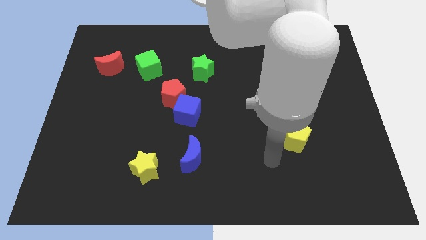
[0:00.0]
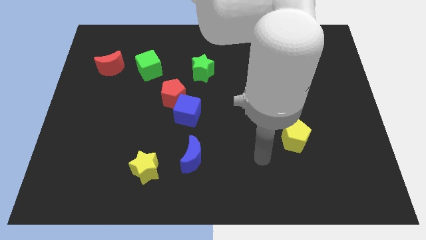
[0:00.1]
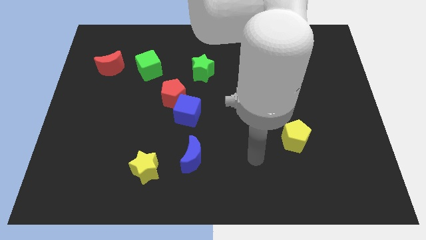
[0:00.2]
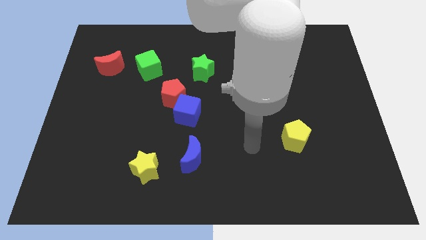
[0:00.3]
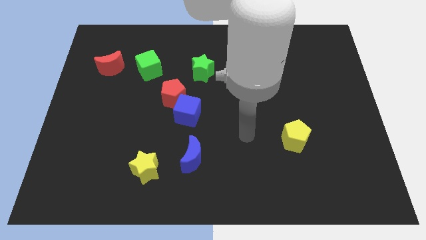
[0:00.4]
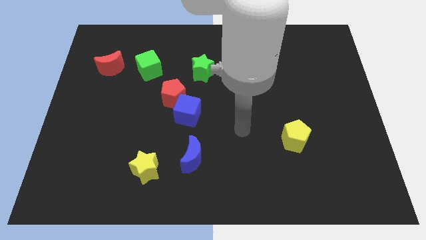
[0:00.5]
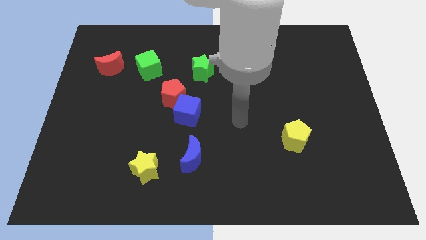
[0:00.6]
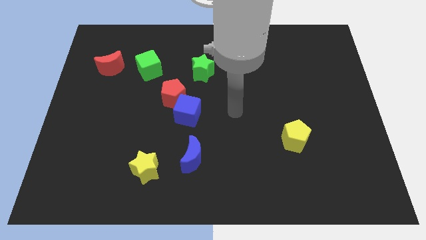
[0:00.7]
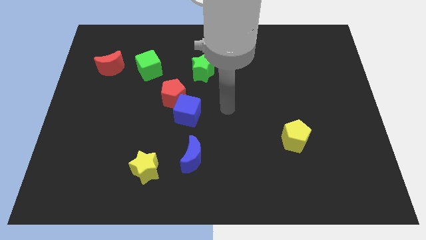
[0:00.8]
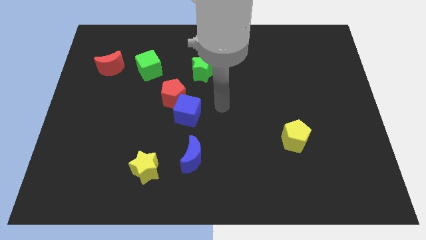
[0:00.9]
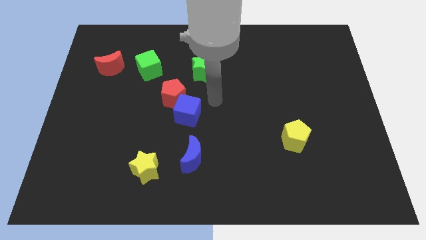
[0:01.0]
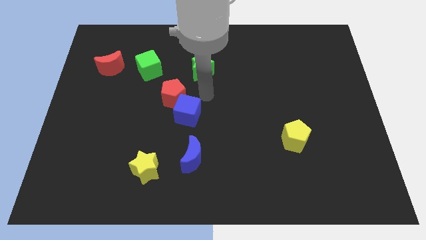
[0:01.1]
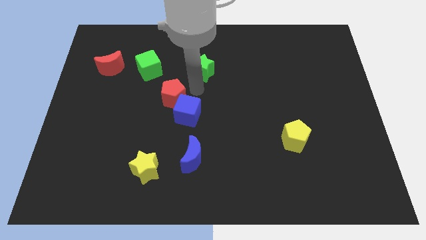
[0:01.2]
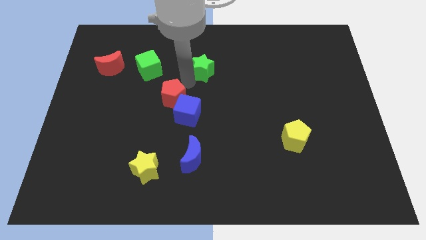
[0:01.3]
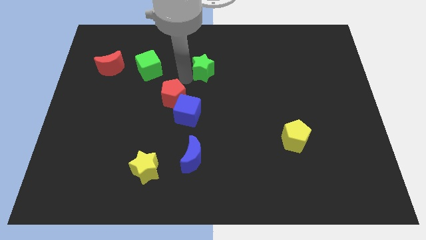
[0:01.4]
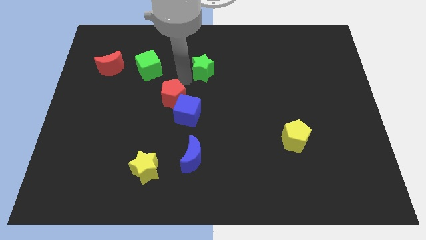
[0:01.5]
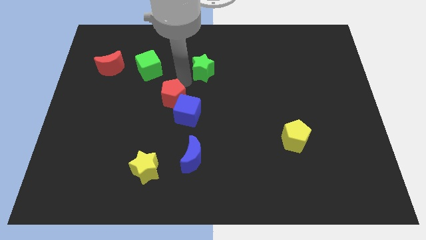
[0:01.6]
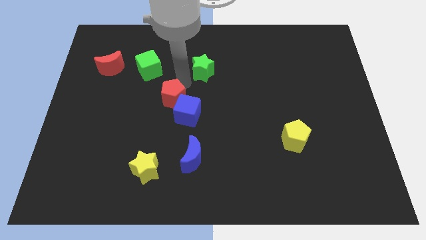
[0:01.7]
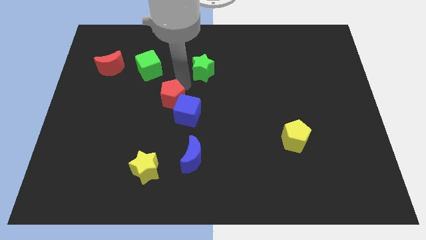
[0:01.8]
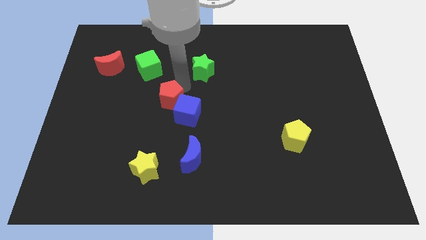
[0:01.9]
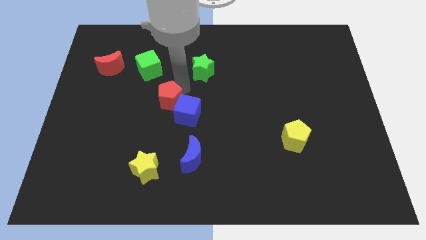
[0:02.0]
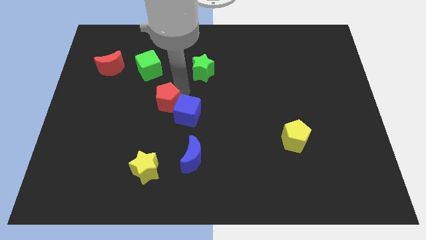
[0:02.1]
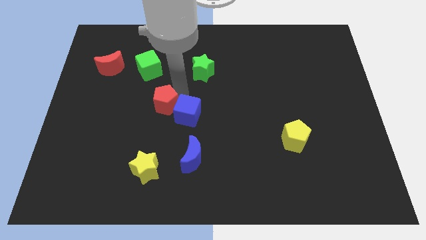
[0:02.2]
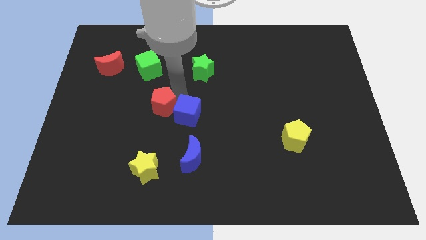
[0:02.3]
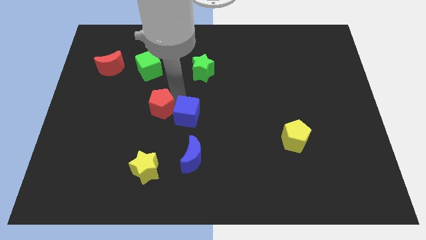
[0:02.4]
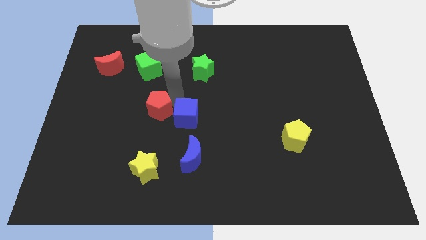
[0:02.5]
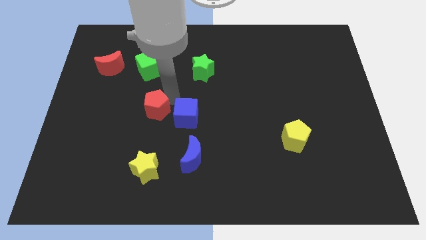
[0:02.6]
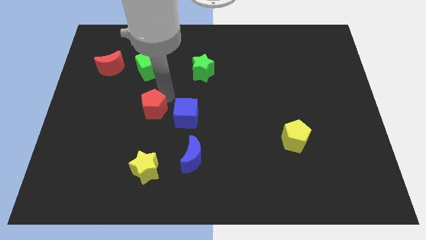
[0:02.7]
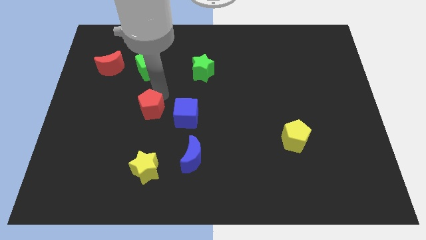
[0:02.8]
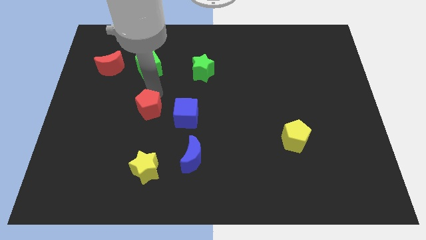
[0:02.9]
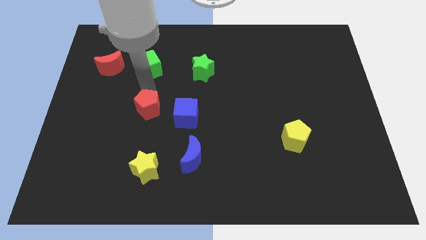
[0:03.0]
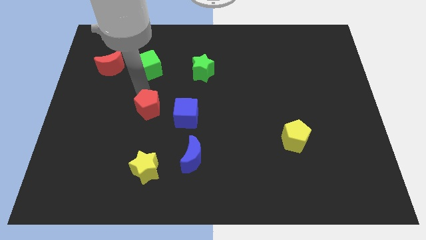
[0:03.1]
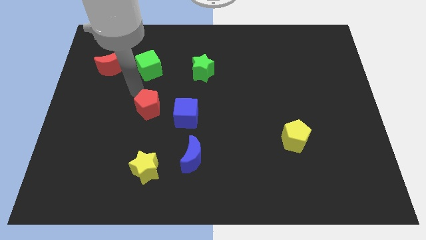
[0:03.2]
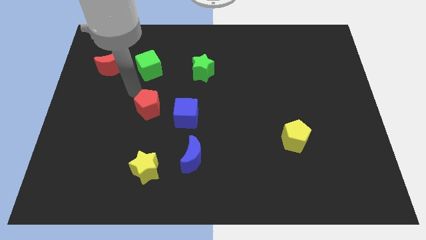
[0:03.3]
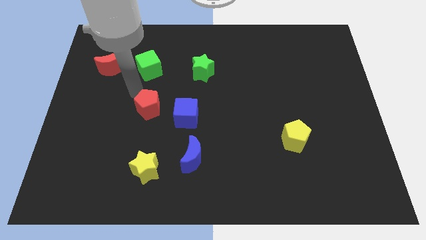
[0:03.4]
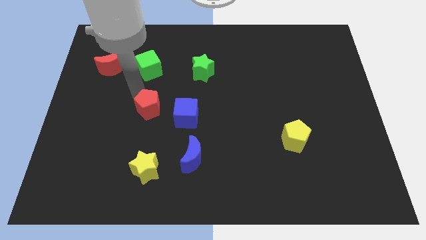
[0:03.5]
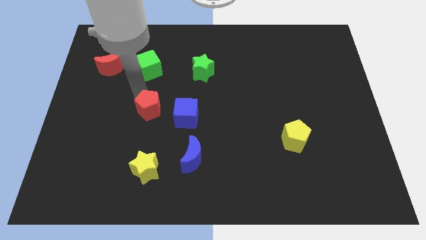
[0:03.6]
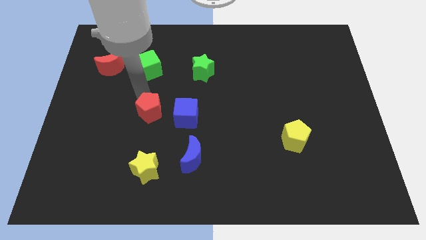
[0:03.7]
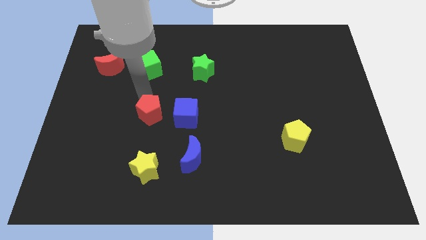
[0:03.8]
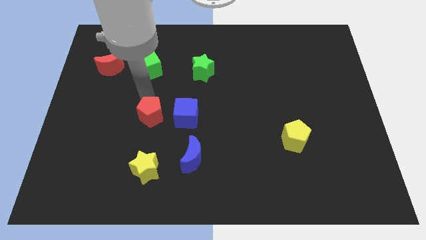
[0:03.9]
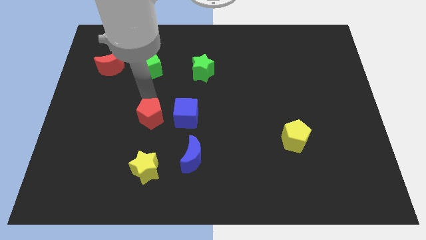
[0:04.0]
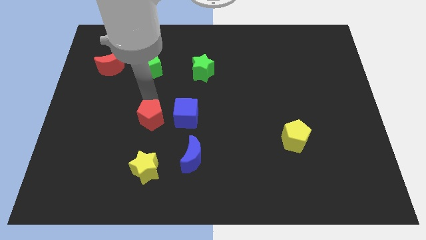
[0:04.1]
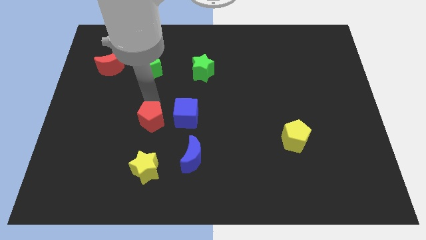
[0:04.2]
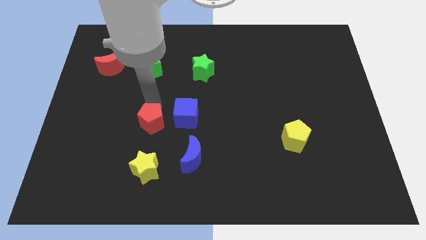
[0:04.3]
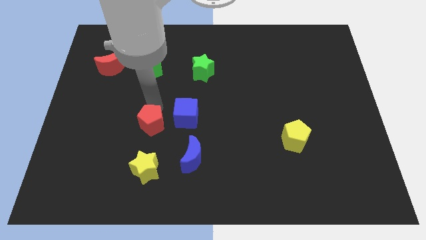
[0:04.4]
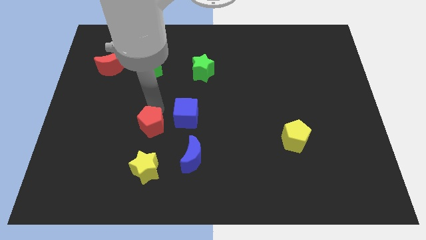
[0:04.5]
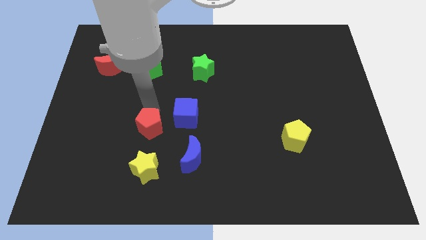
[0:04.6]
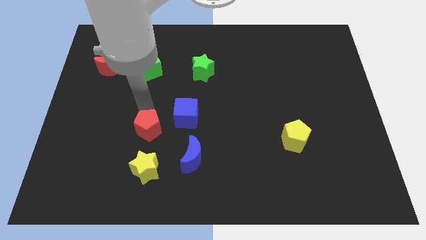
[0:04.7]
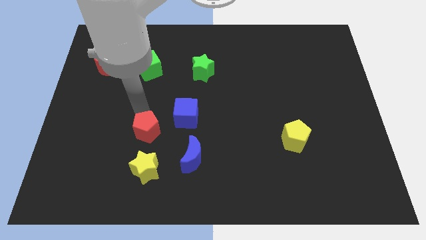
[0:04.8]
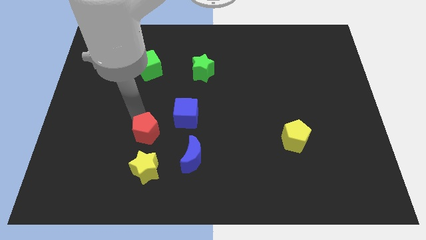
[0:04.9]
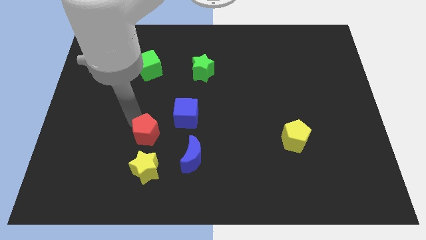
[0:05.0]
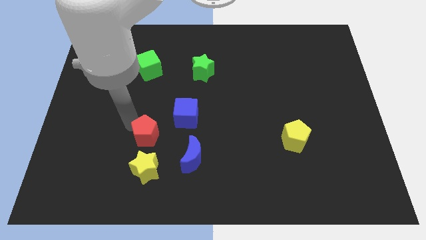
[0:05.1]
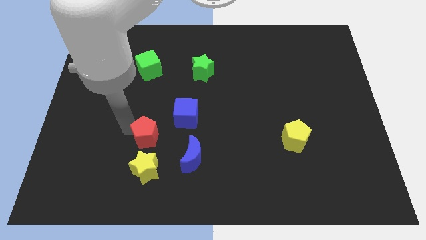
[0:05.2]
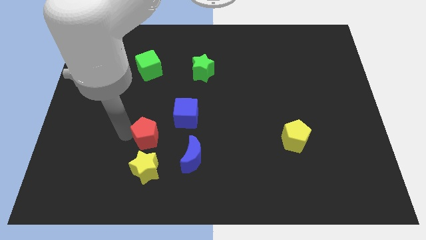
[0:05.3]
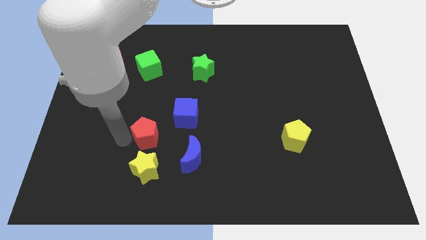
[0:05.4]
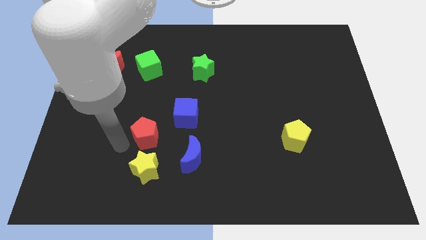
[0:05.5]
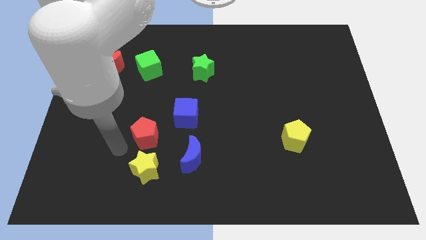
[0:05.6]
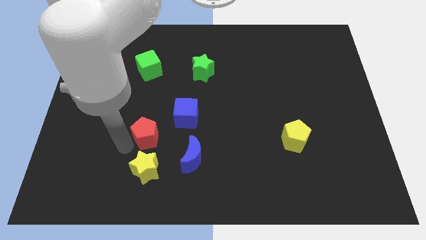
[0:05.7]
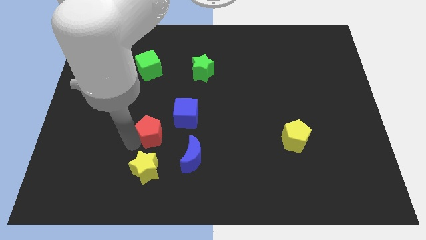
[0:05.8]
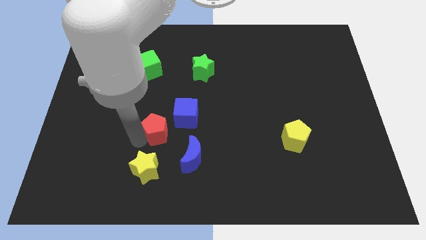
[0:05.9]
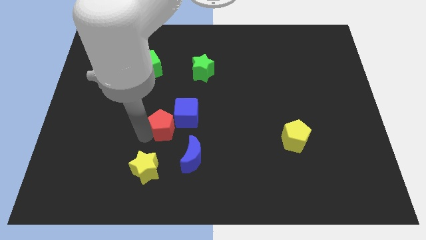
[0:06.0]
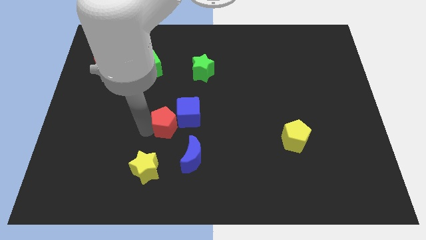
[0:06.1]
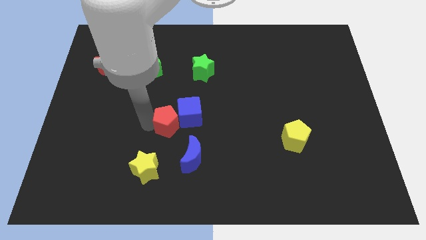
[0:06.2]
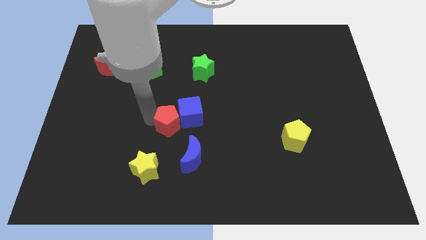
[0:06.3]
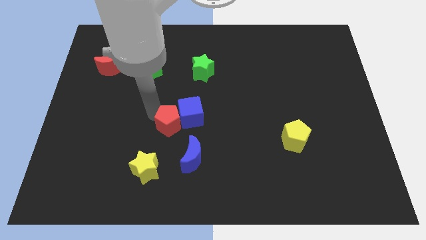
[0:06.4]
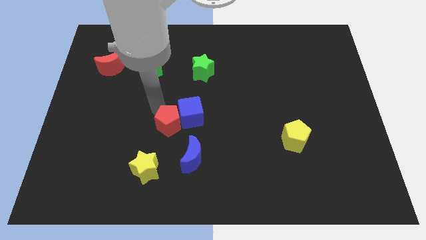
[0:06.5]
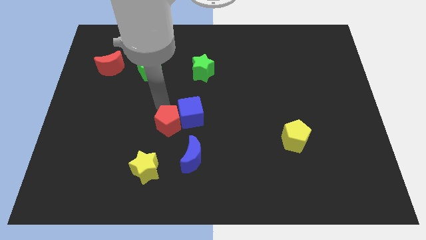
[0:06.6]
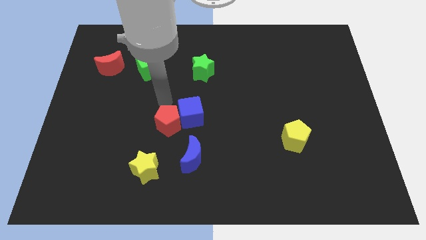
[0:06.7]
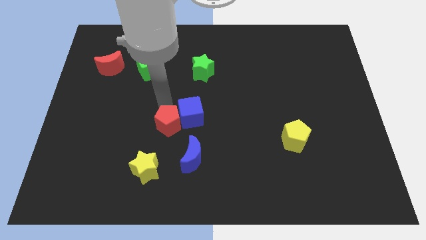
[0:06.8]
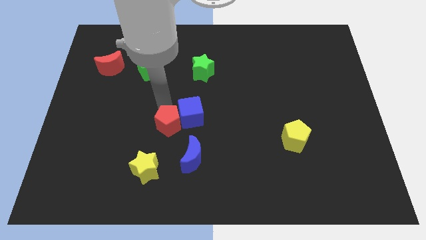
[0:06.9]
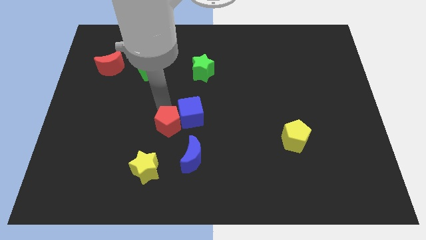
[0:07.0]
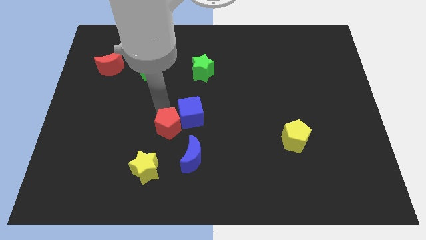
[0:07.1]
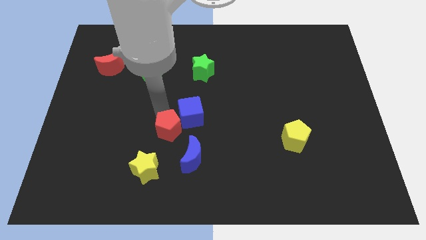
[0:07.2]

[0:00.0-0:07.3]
push the red pentagon to the top right side of the yellow star

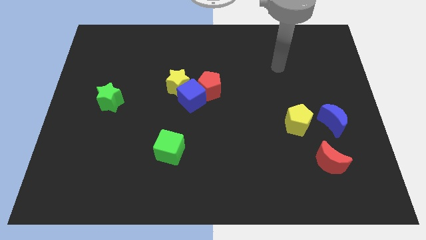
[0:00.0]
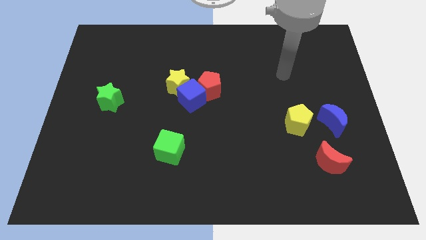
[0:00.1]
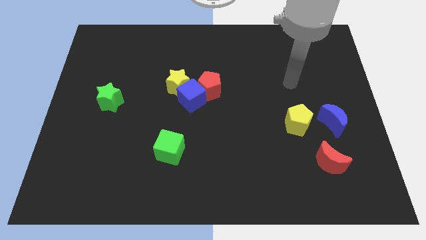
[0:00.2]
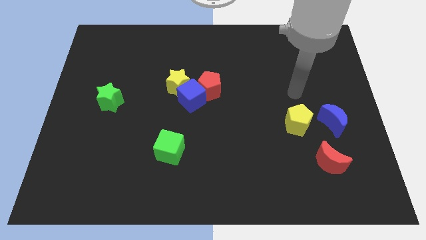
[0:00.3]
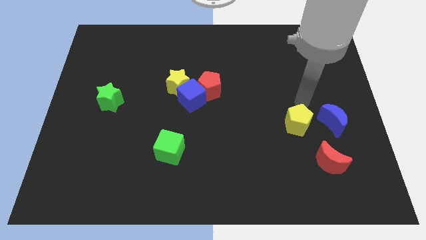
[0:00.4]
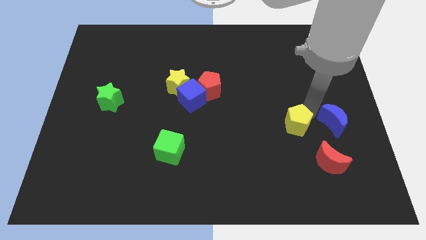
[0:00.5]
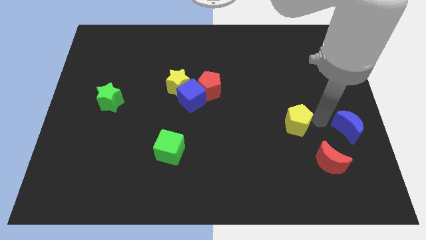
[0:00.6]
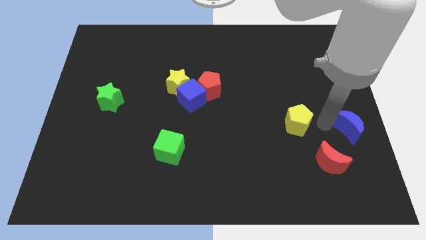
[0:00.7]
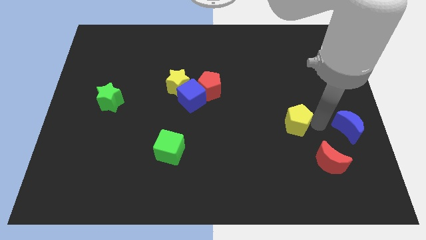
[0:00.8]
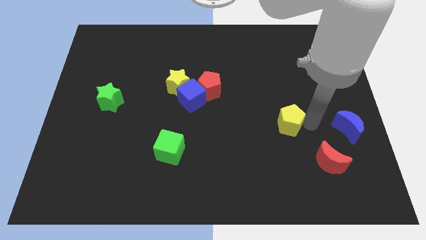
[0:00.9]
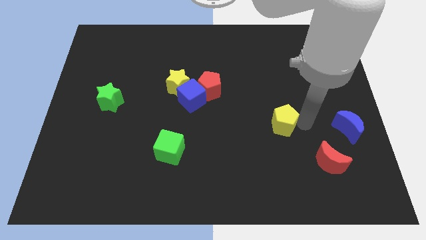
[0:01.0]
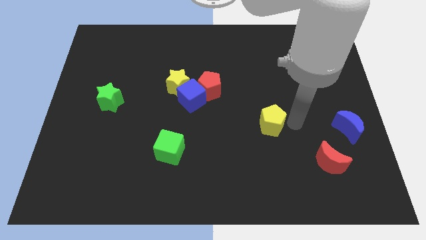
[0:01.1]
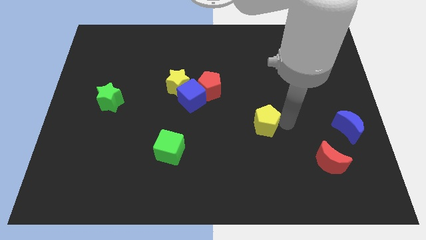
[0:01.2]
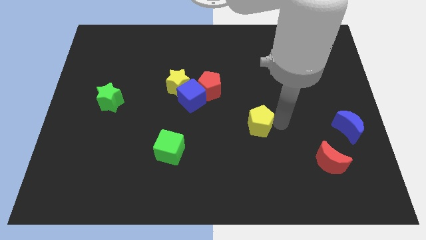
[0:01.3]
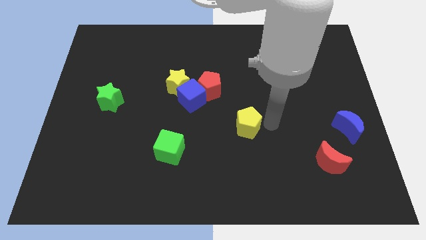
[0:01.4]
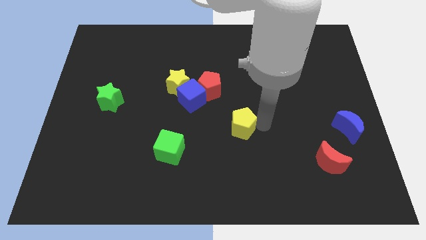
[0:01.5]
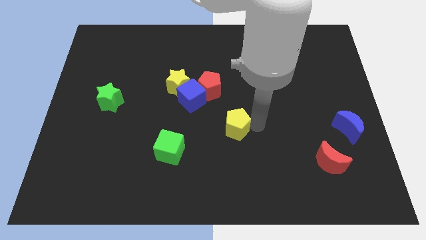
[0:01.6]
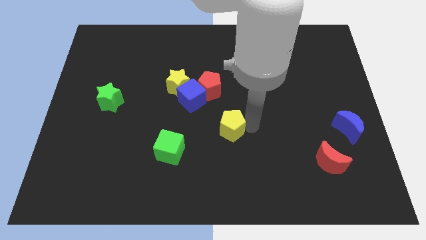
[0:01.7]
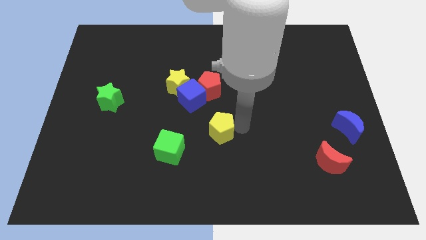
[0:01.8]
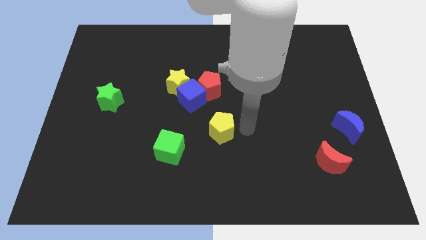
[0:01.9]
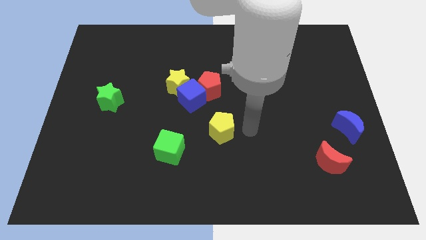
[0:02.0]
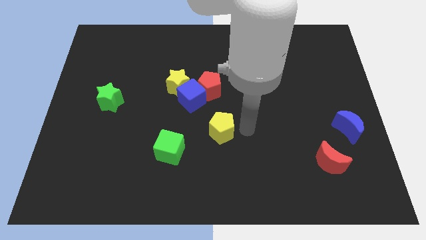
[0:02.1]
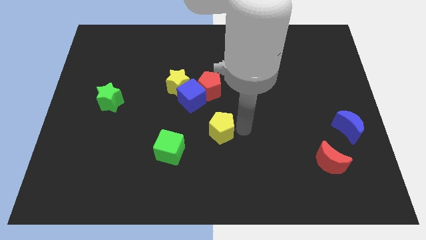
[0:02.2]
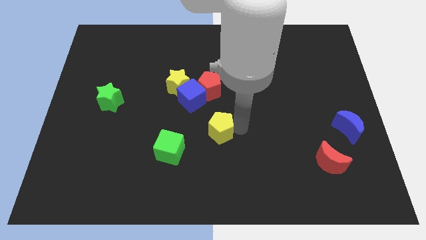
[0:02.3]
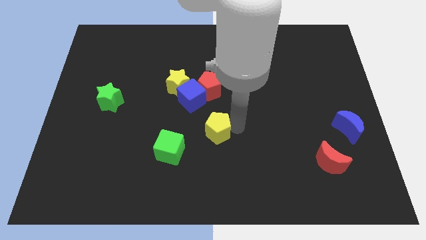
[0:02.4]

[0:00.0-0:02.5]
move the yellow pentagon diagonally up and to the right of the green cube
